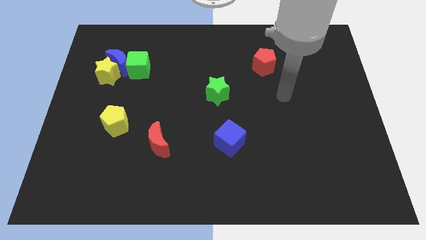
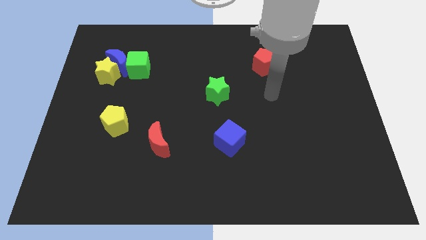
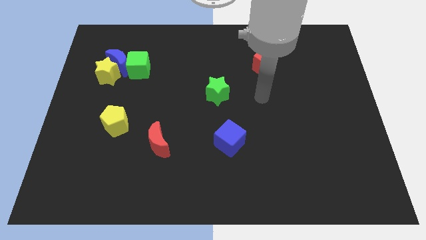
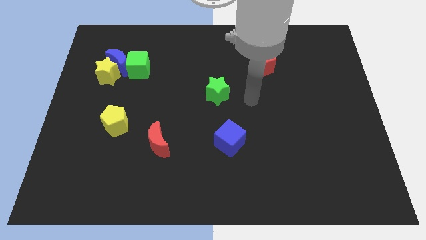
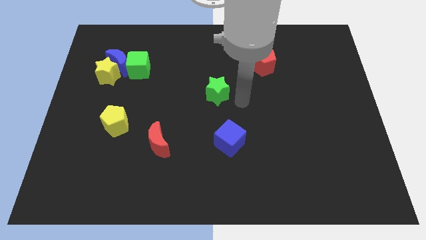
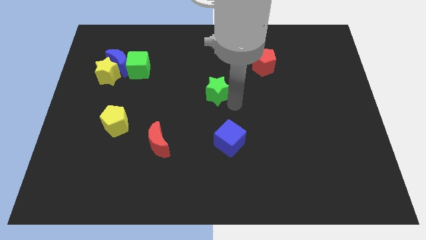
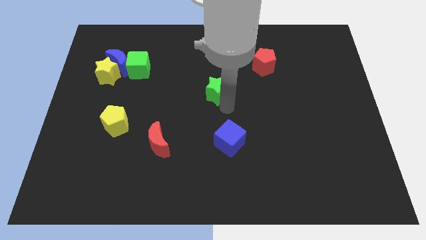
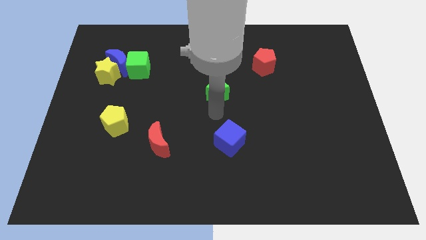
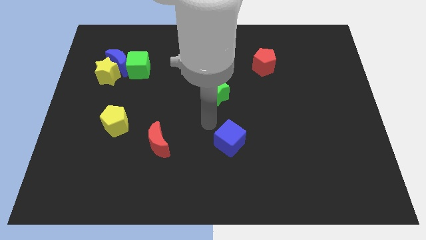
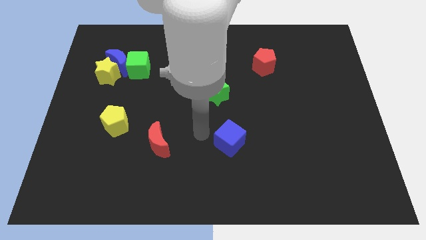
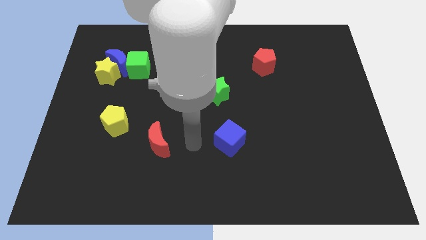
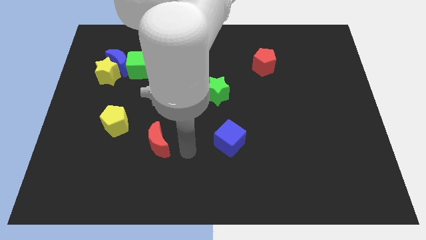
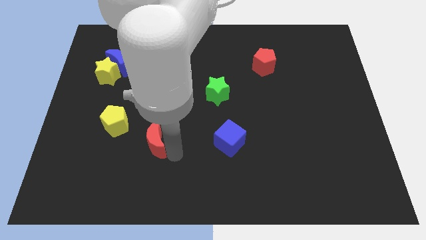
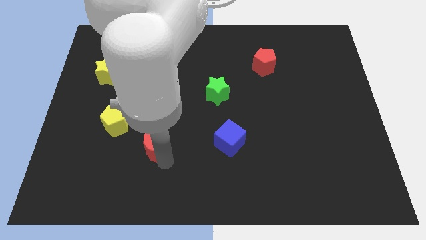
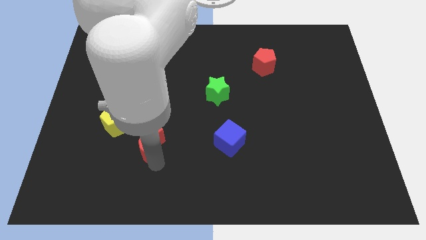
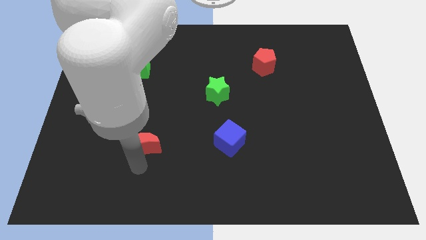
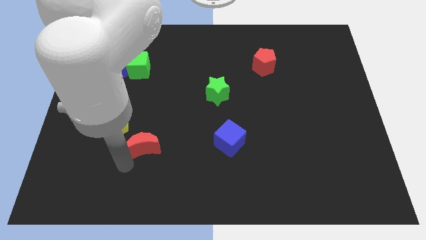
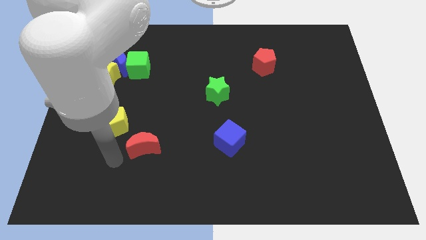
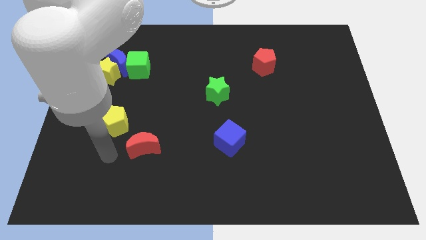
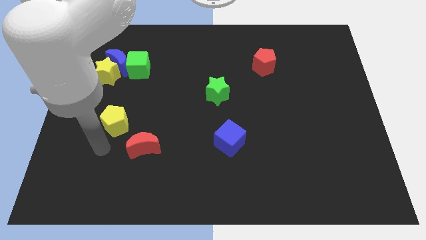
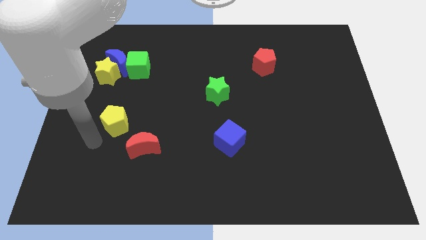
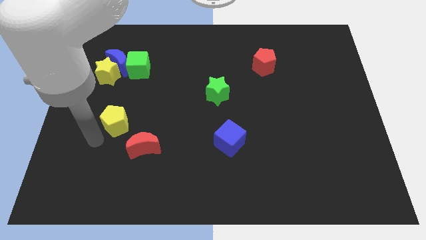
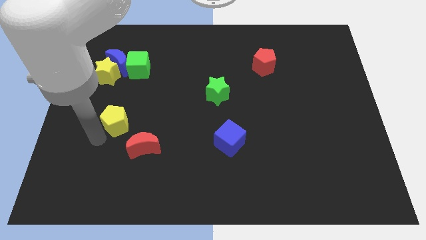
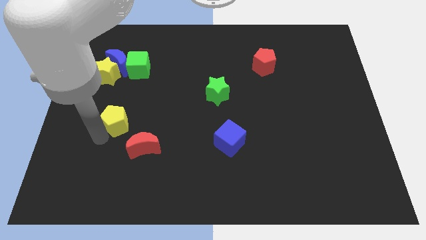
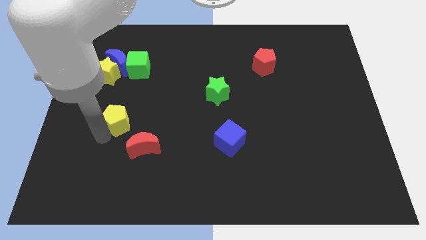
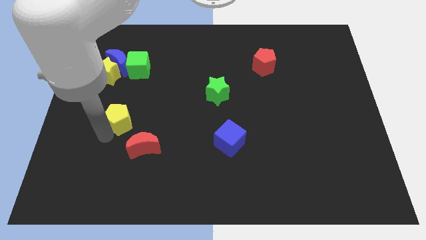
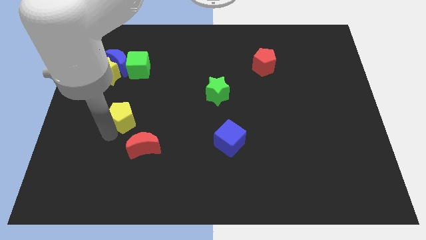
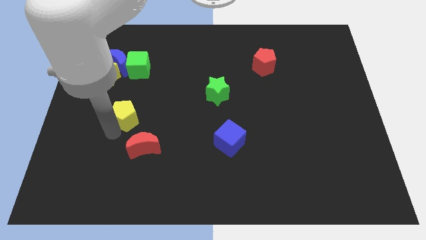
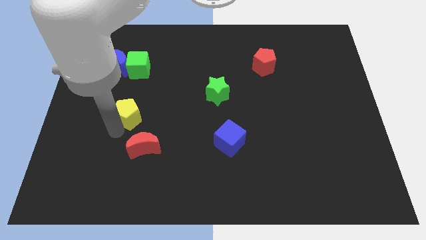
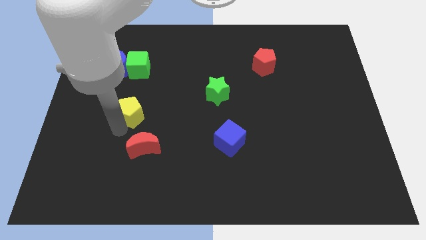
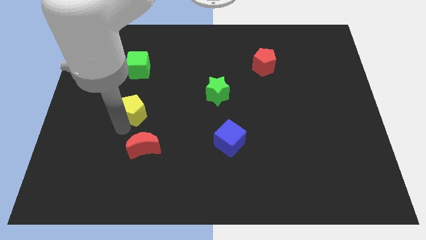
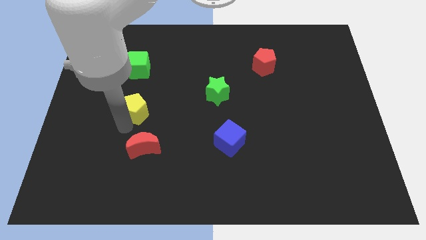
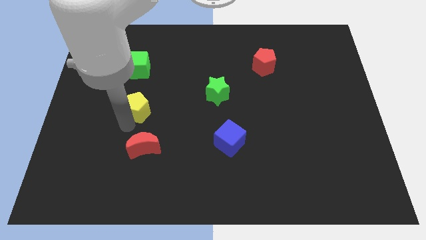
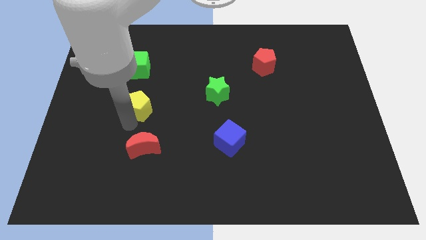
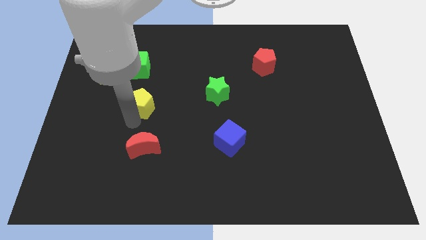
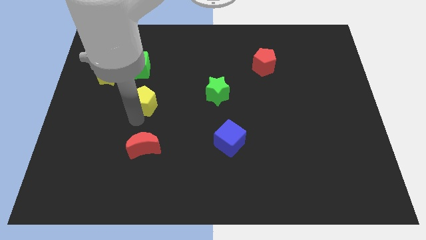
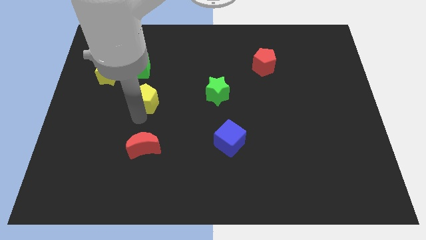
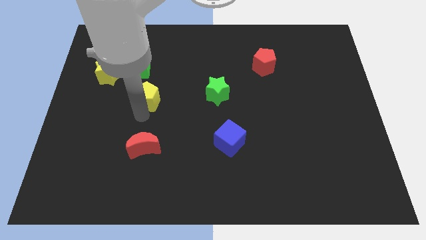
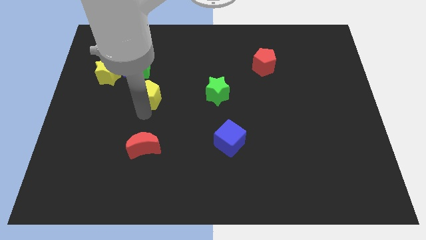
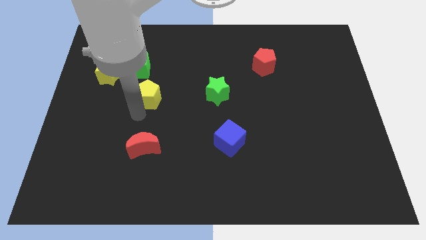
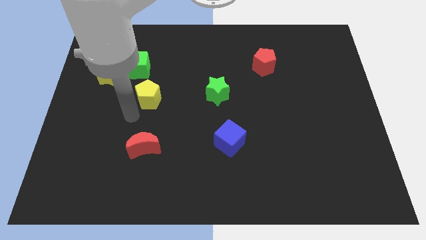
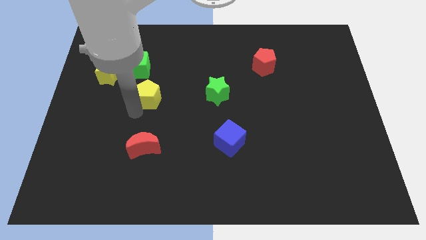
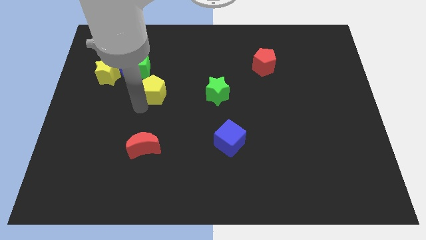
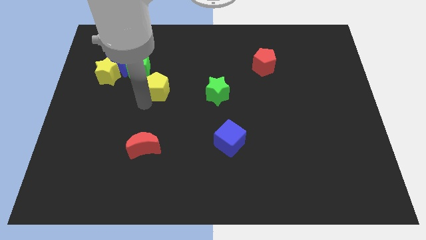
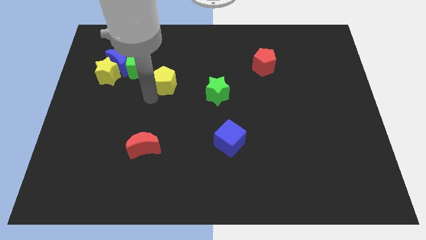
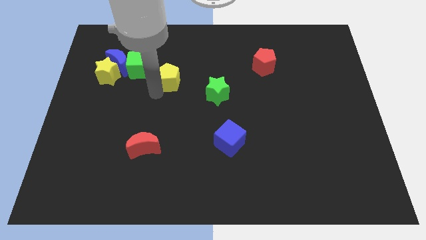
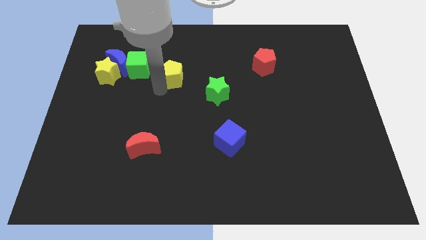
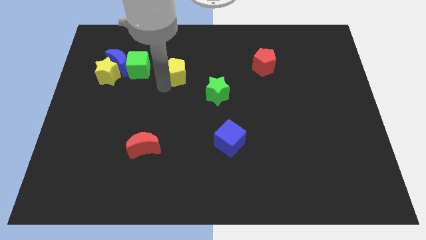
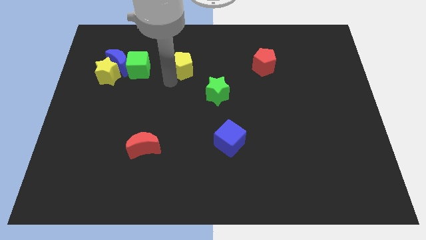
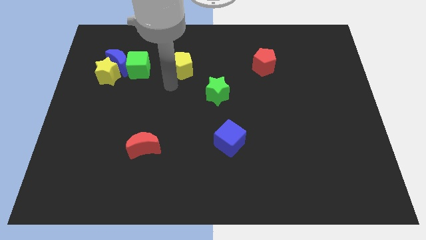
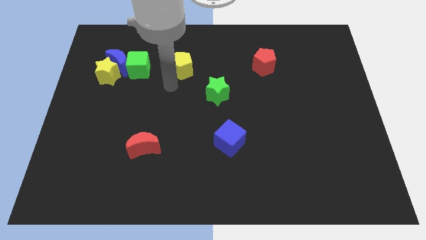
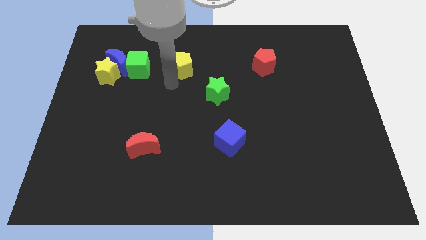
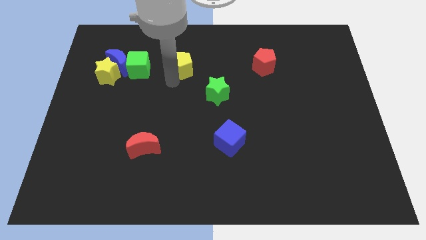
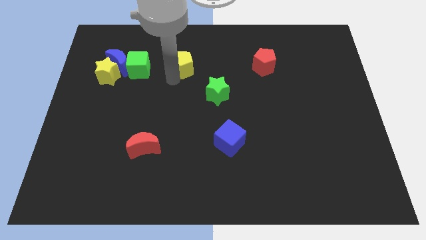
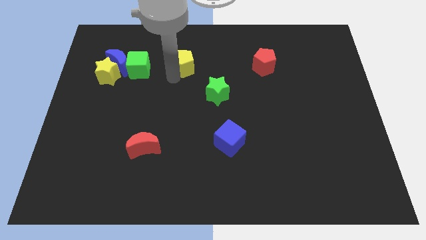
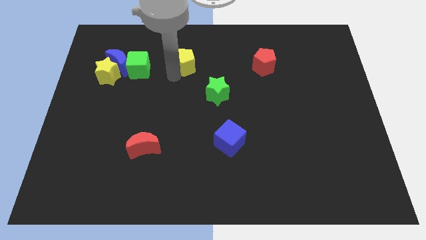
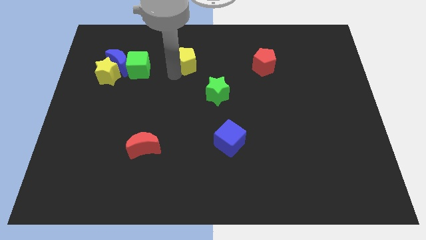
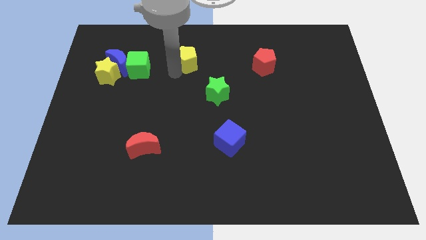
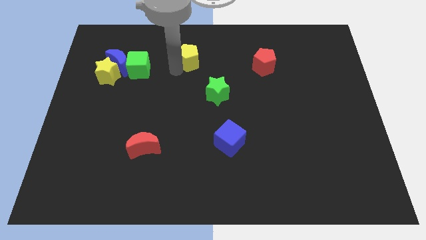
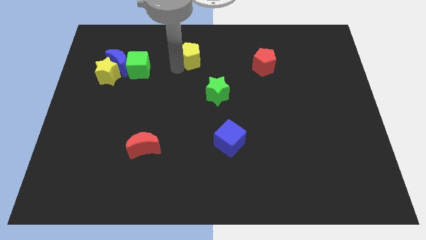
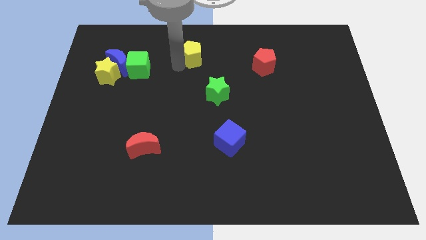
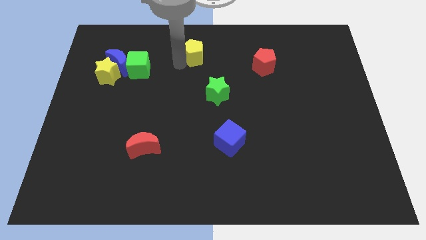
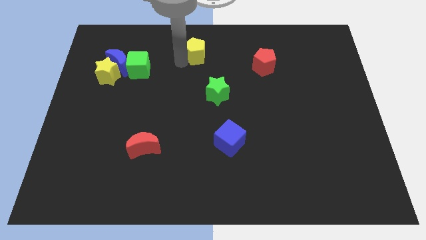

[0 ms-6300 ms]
move the yellow pentagon to the top

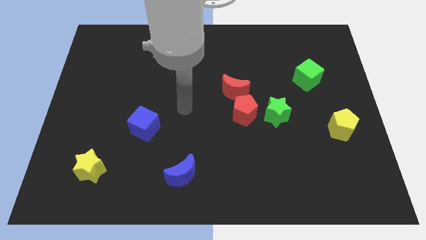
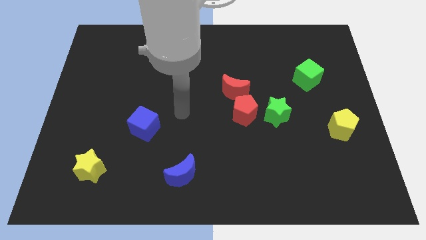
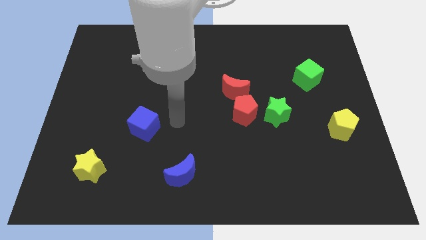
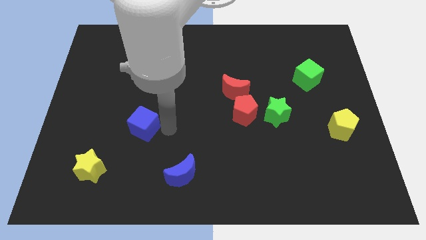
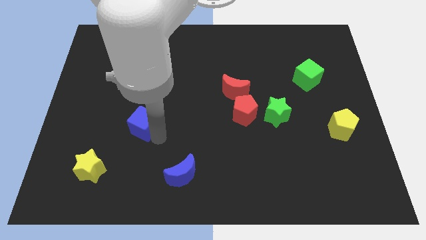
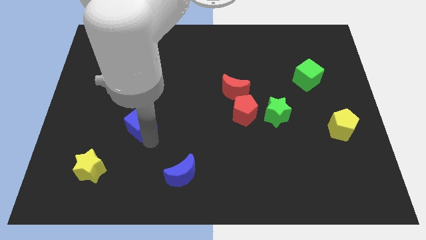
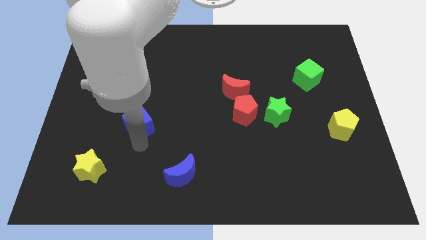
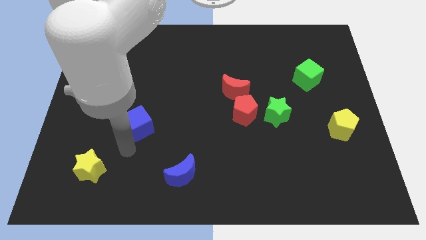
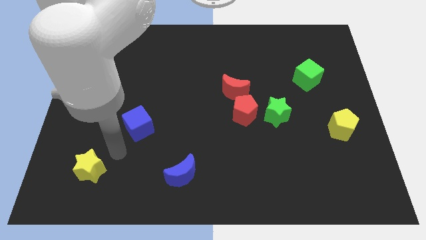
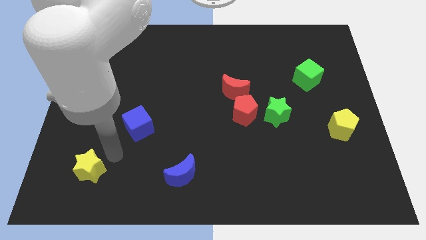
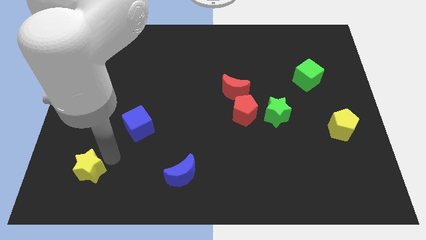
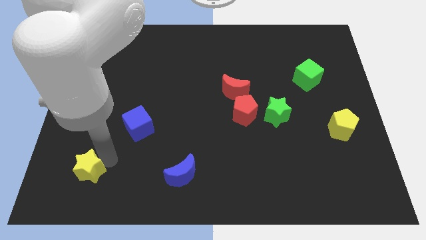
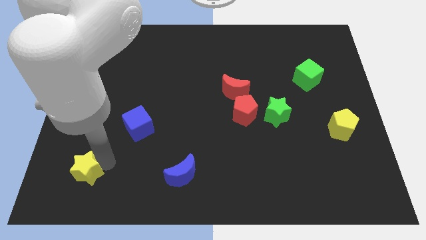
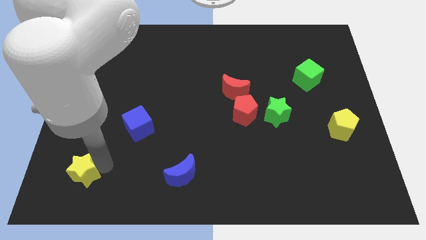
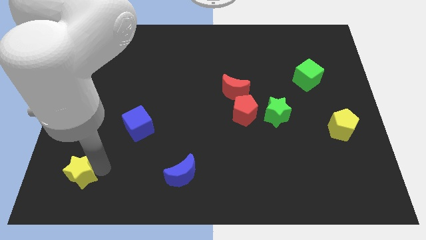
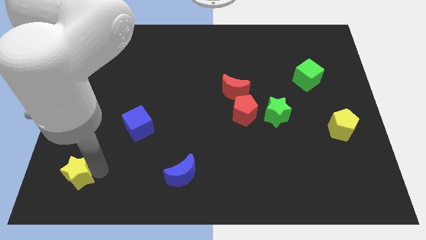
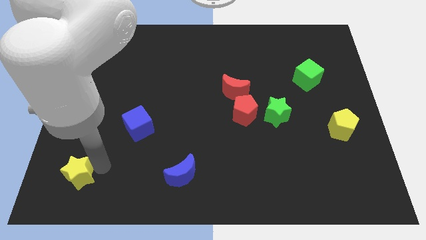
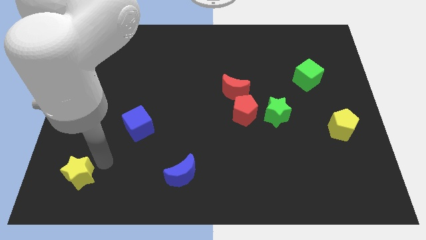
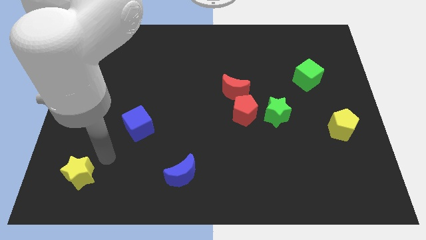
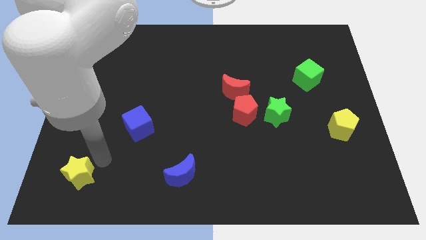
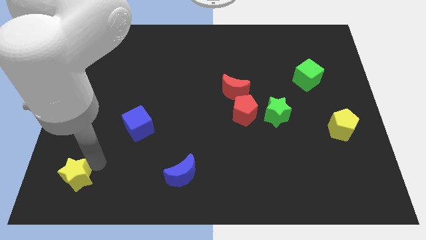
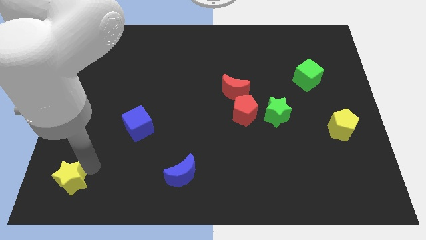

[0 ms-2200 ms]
move the yellow star to the bottom left corner
